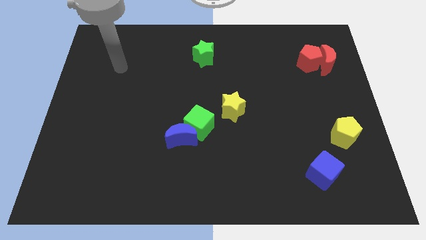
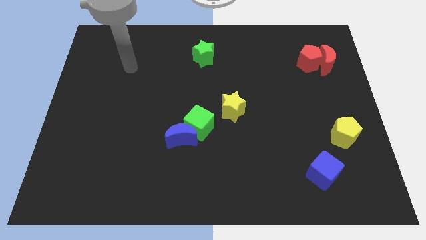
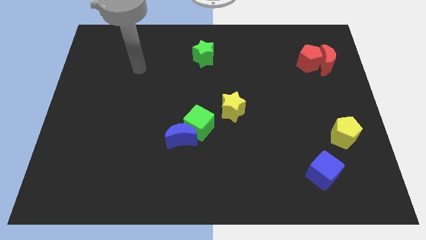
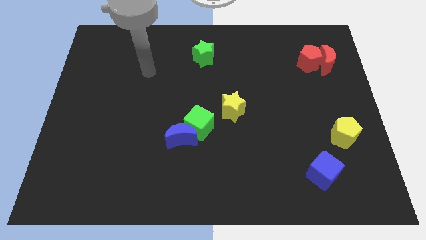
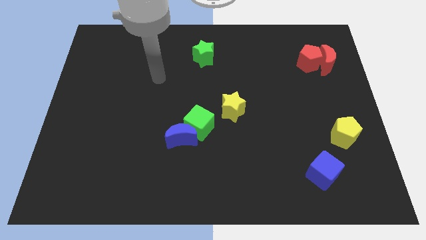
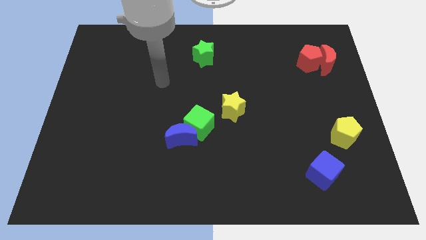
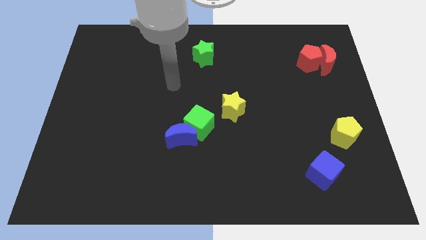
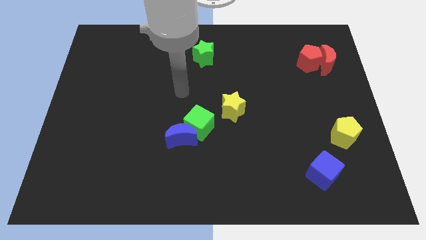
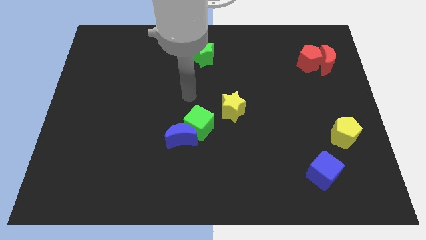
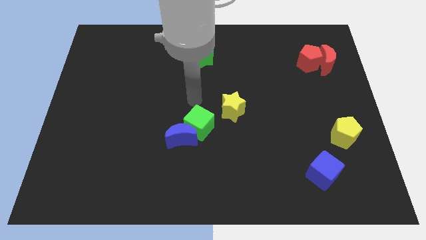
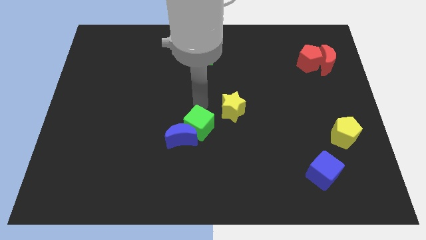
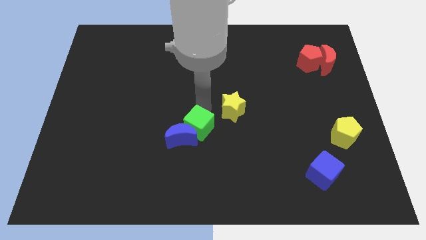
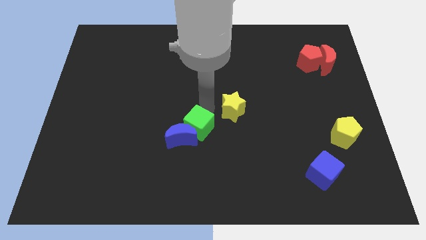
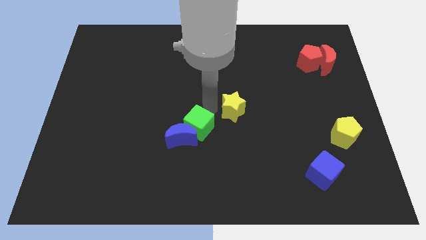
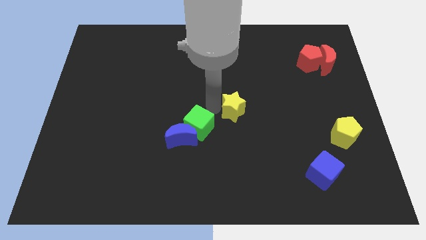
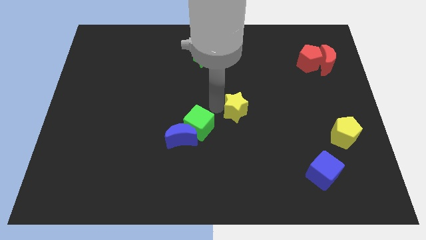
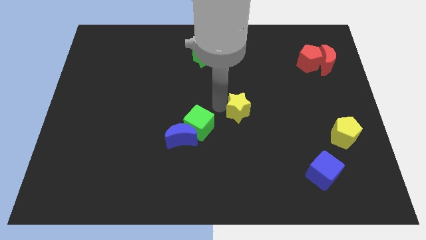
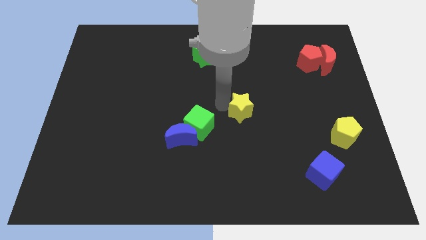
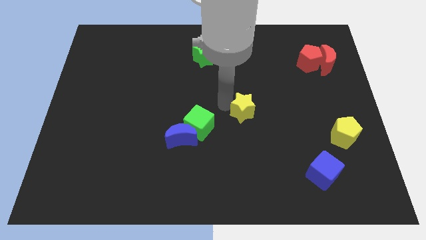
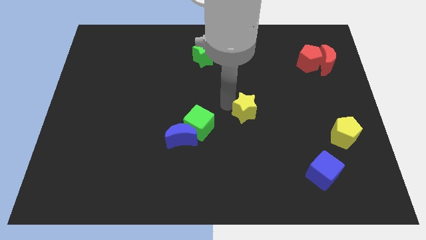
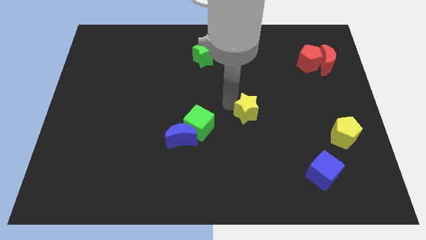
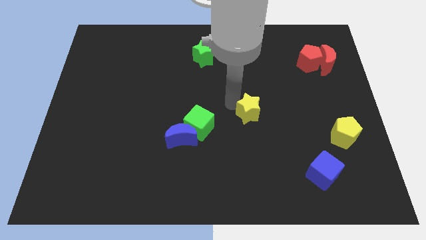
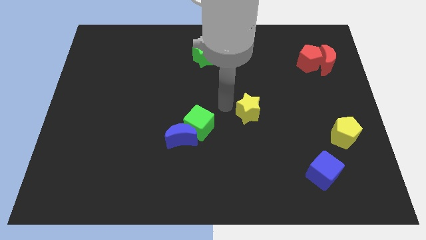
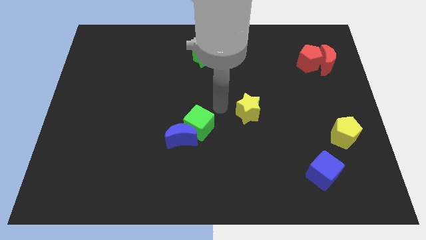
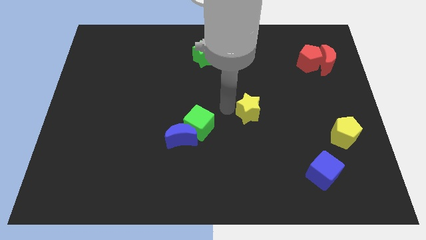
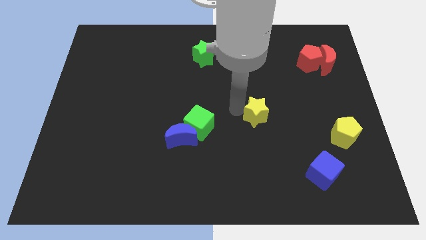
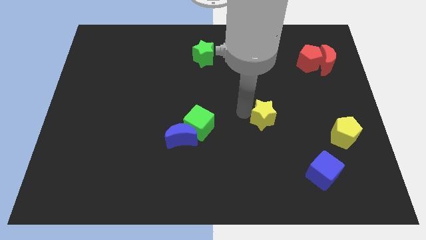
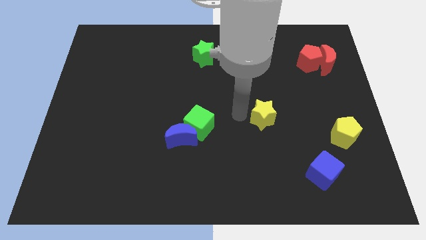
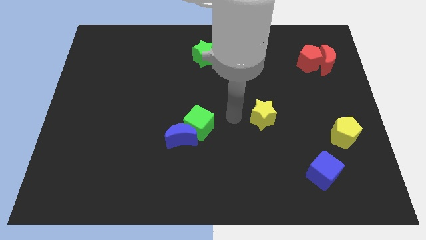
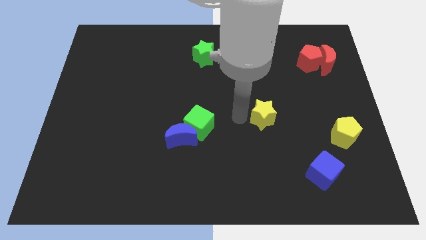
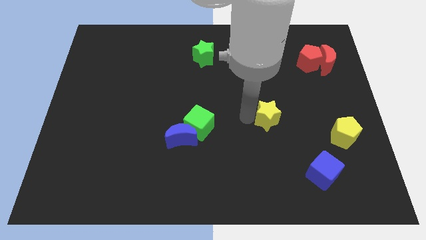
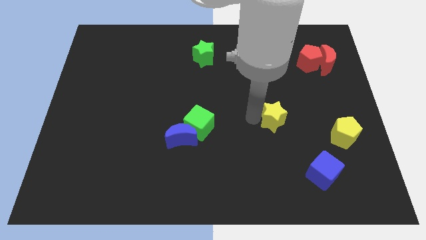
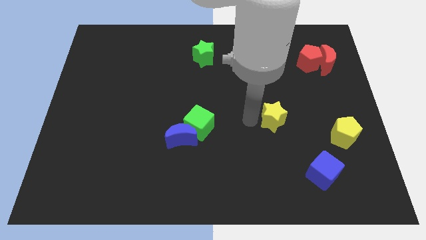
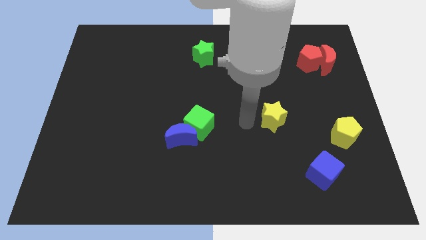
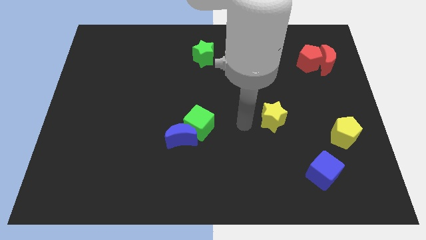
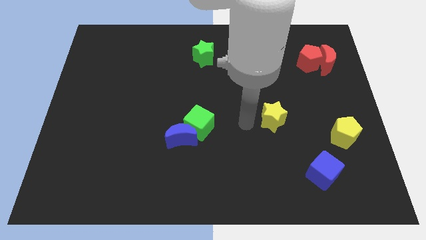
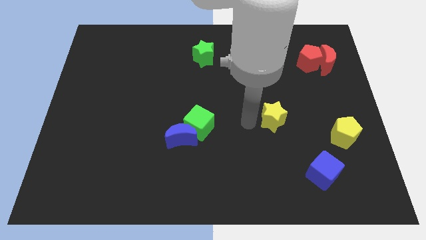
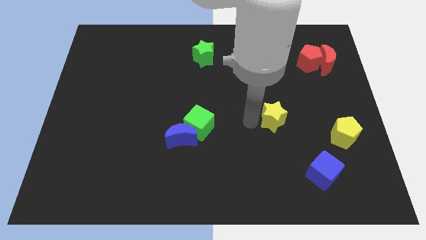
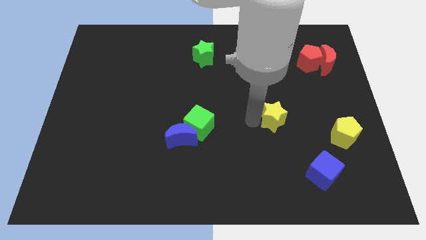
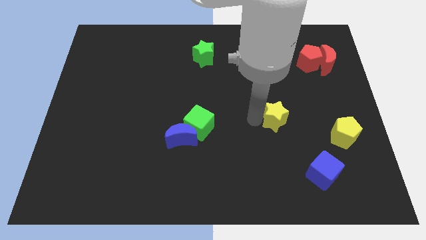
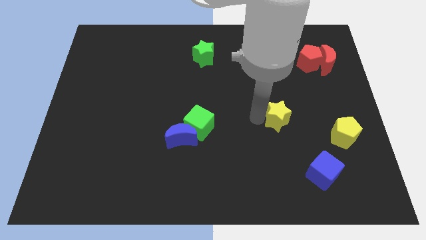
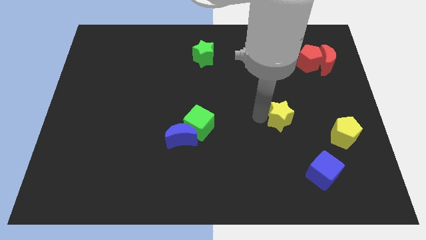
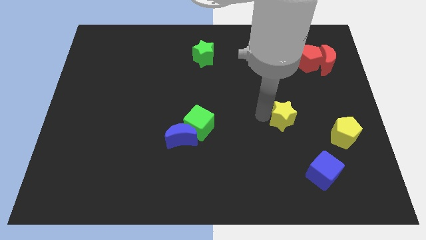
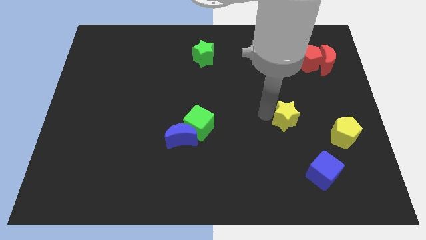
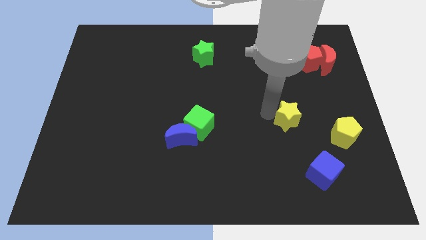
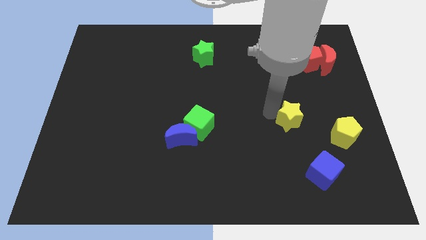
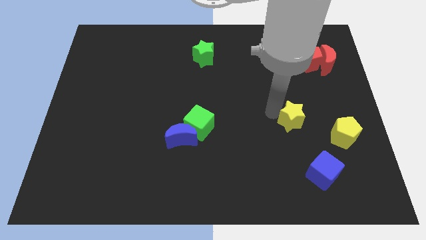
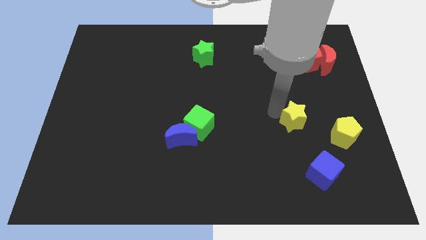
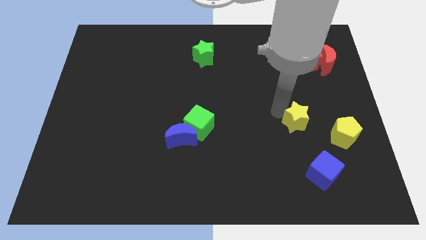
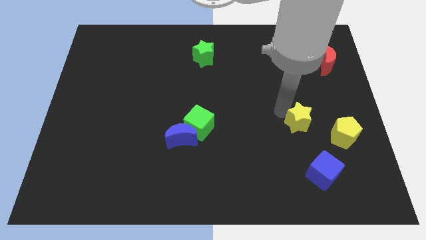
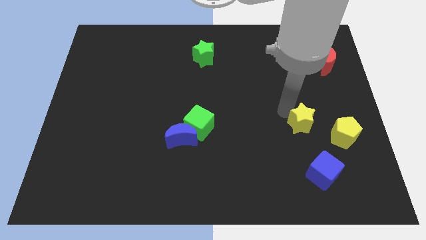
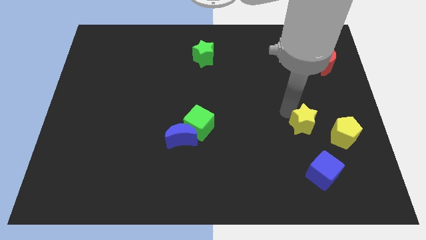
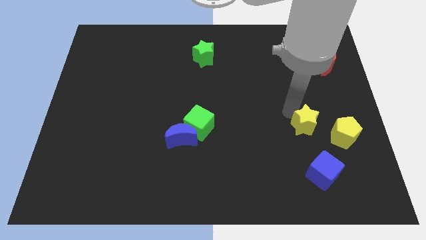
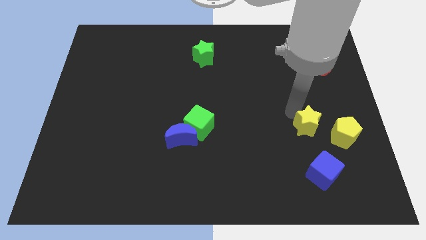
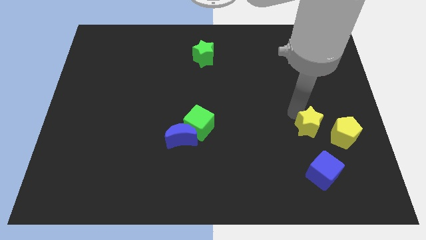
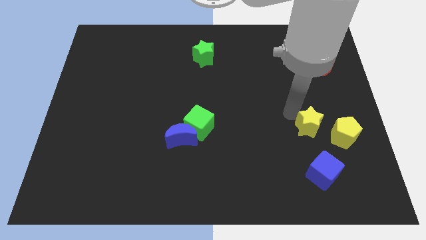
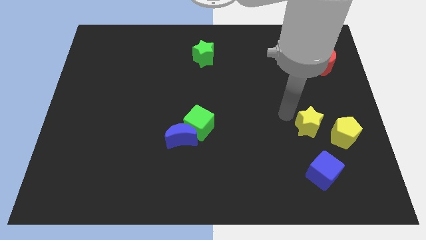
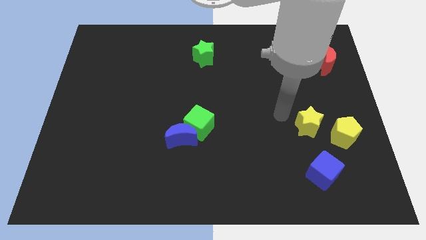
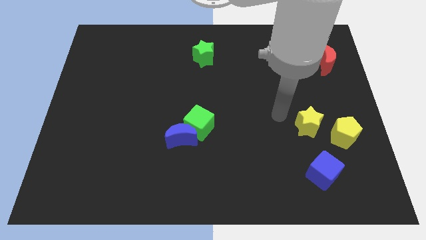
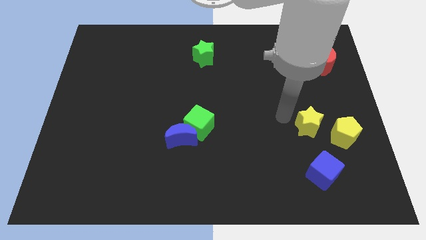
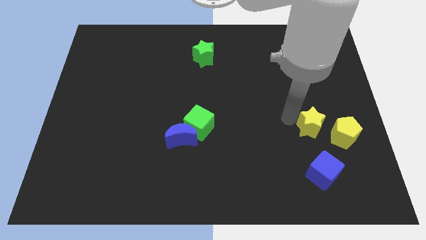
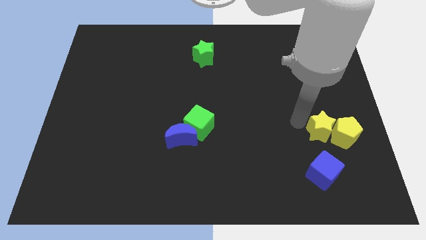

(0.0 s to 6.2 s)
put the yellow star to the yellow pentagon

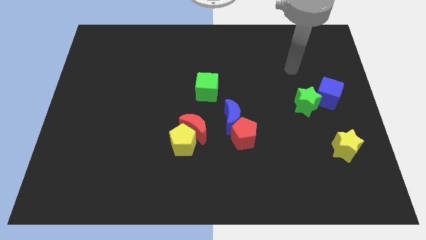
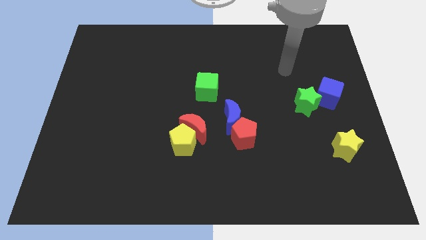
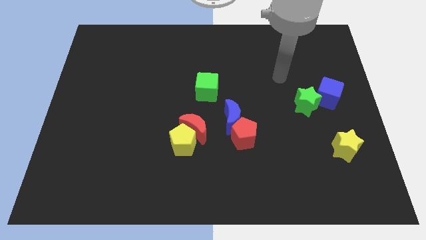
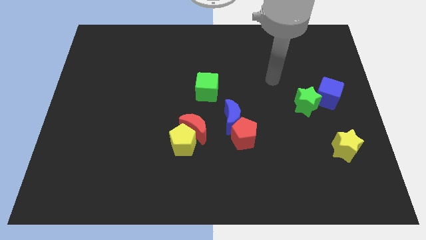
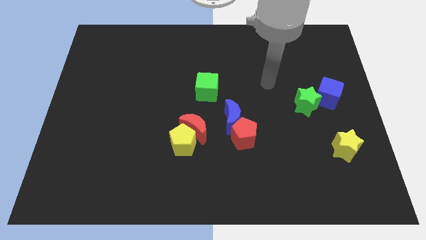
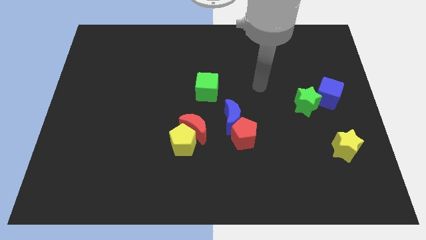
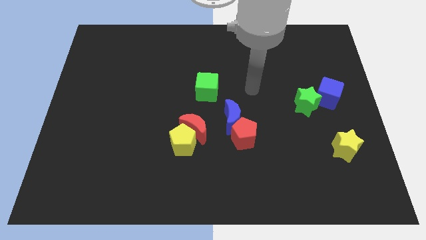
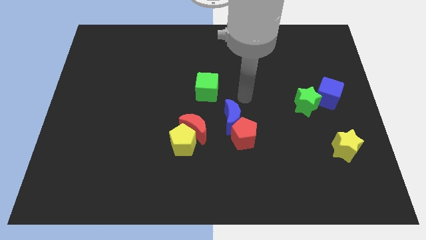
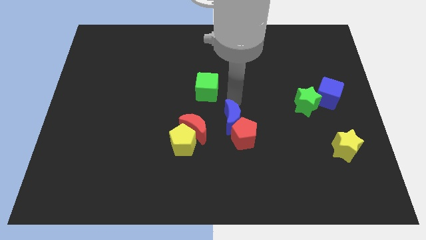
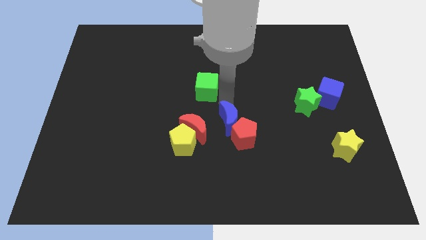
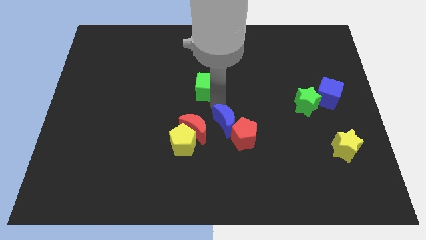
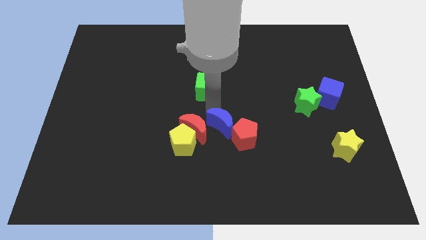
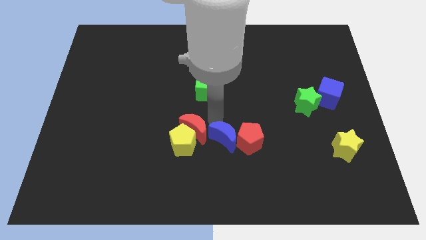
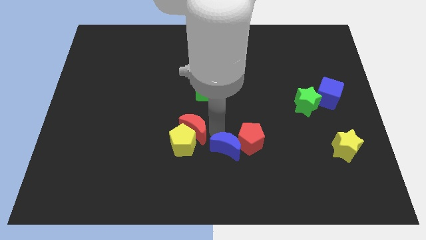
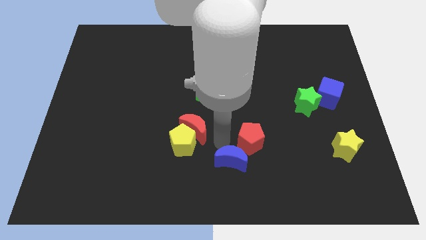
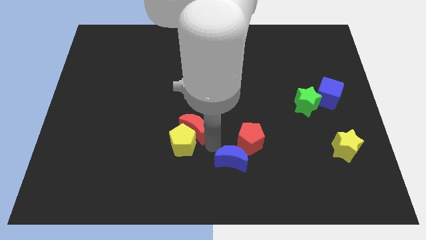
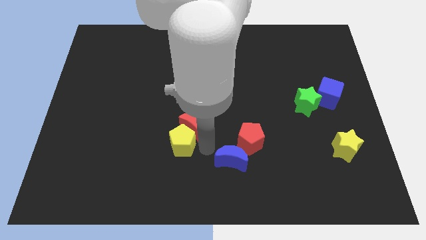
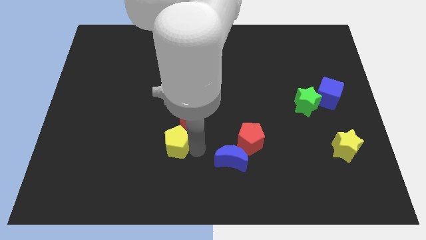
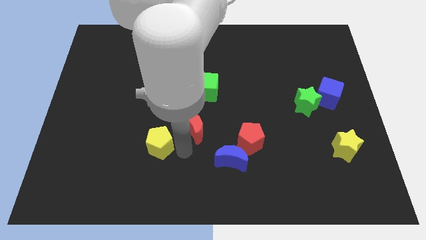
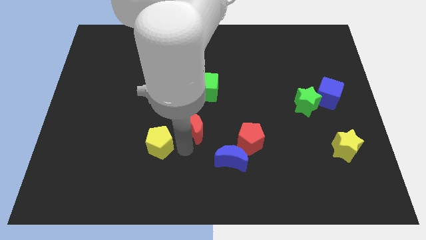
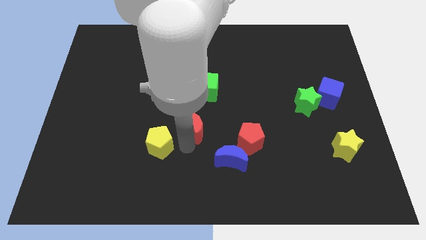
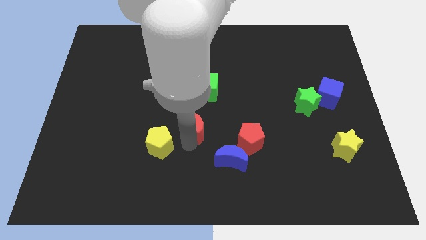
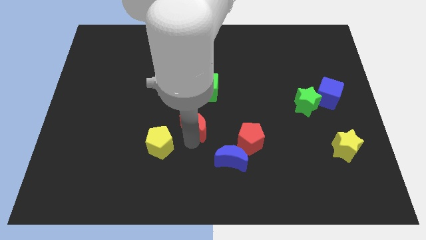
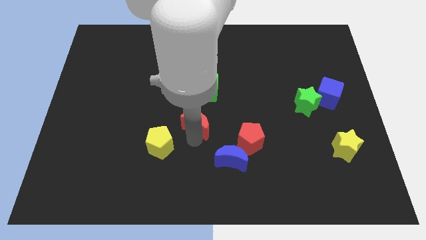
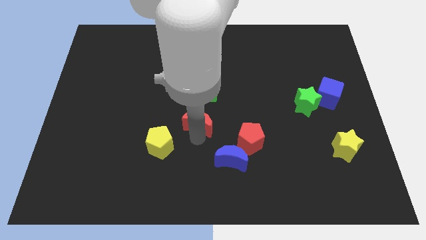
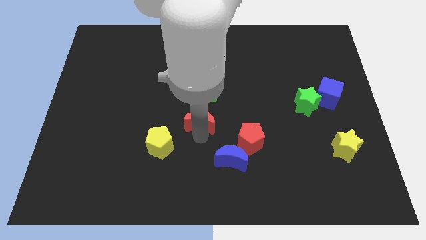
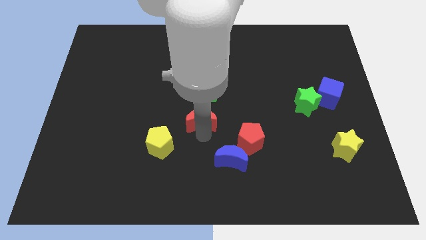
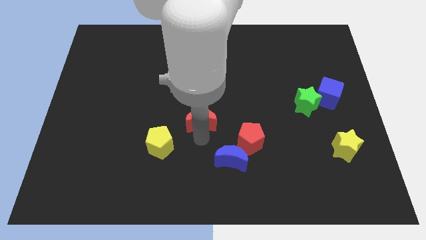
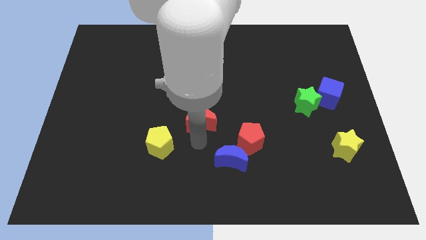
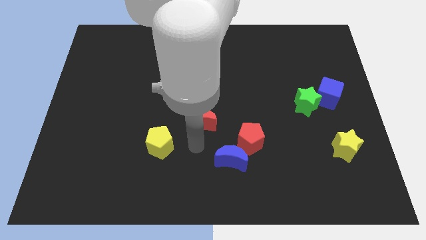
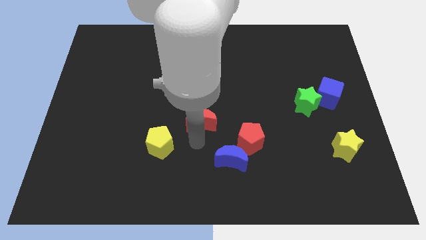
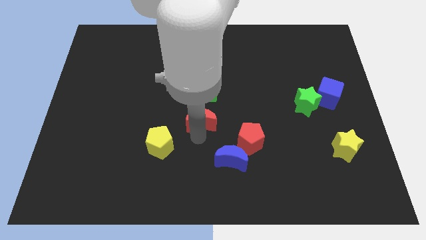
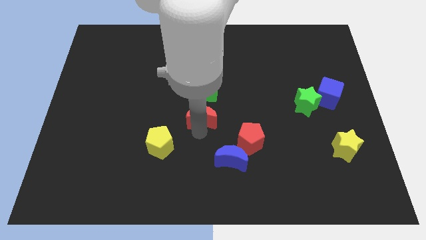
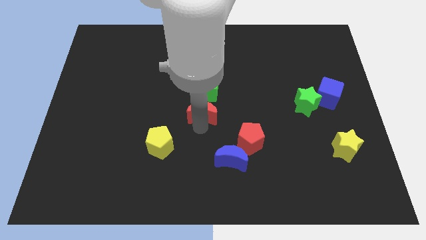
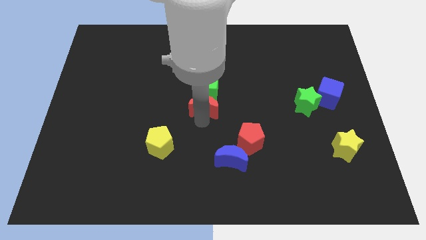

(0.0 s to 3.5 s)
slide the red moon close to the green cube
